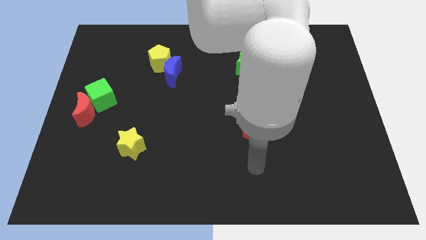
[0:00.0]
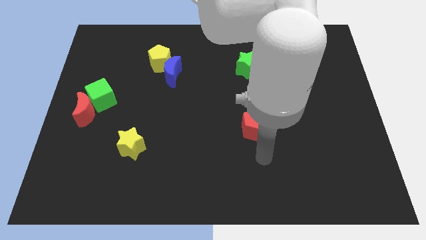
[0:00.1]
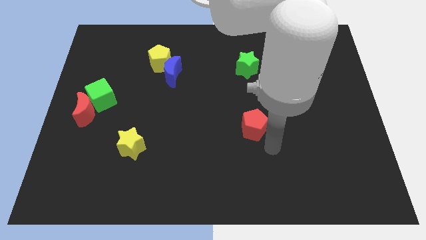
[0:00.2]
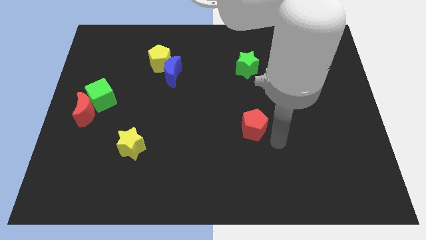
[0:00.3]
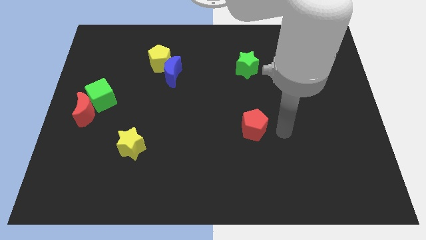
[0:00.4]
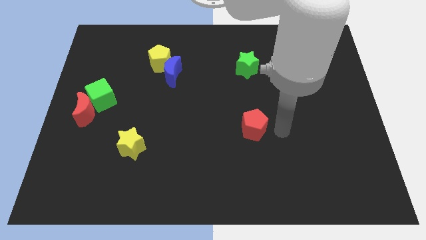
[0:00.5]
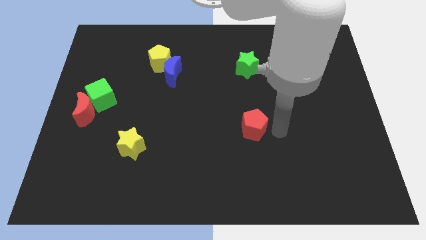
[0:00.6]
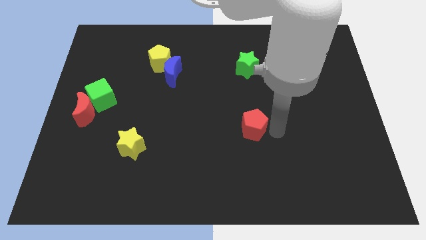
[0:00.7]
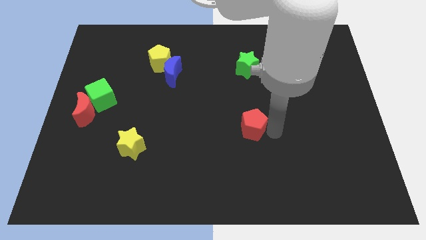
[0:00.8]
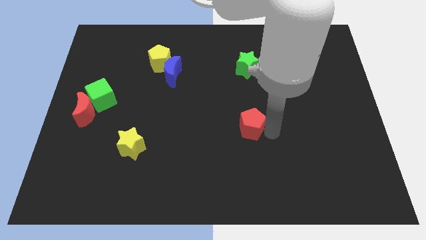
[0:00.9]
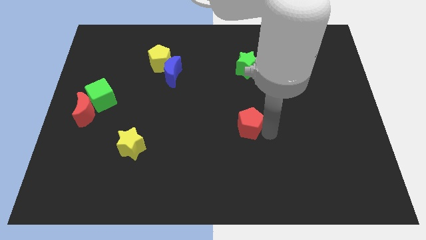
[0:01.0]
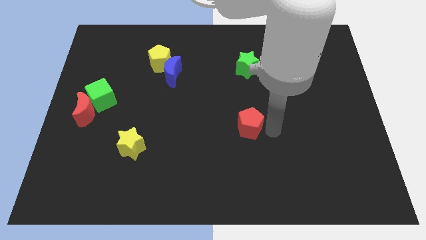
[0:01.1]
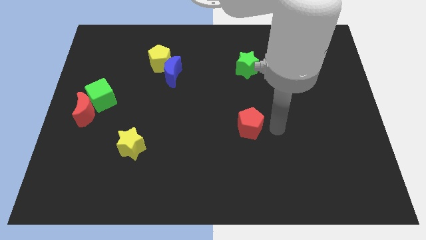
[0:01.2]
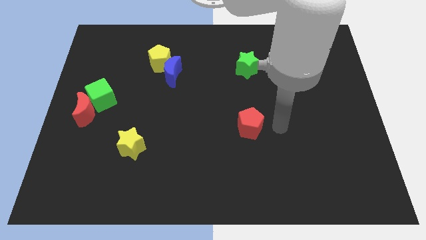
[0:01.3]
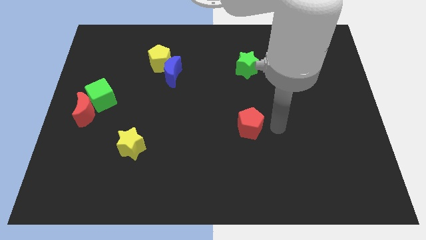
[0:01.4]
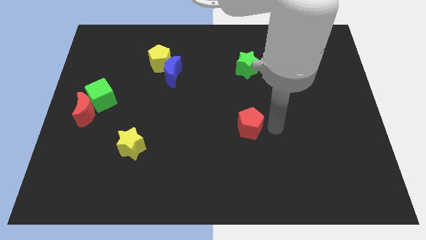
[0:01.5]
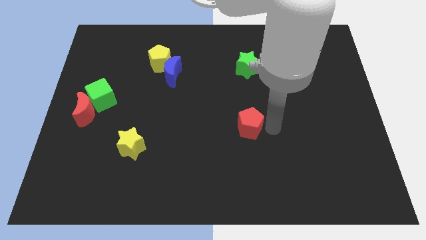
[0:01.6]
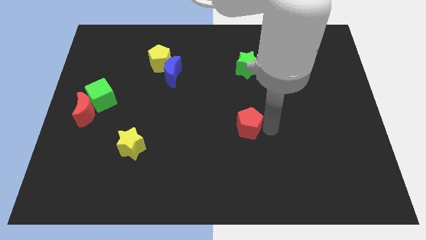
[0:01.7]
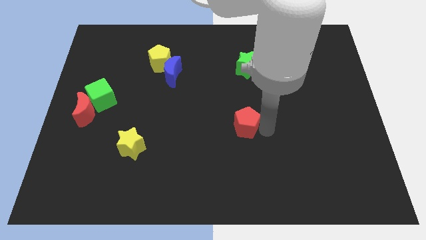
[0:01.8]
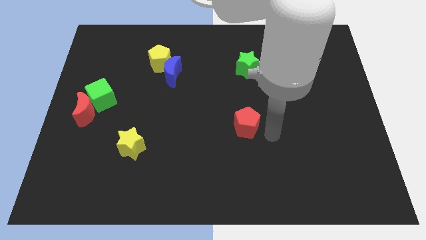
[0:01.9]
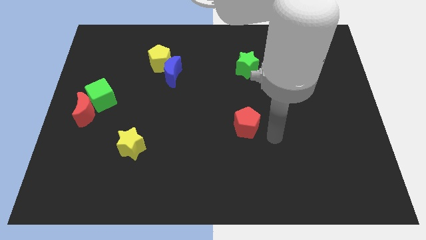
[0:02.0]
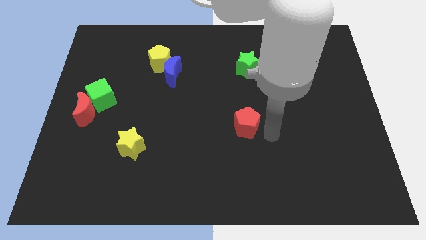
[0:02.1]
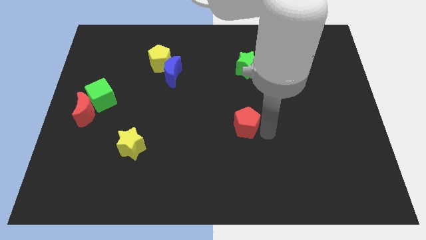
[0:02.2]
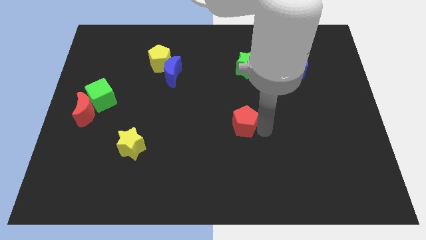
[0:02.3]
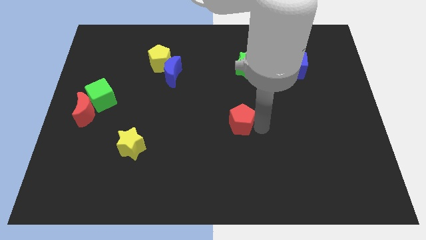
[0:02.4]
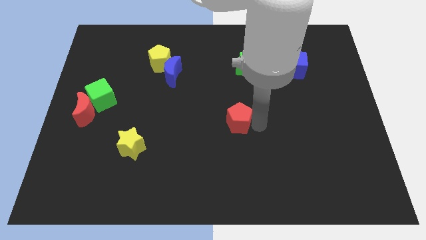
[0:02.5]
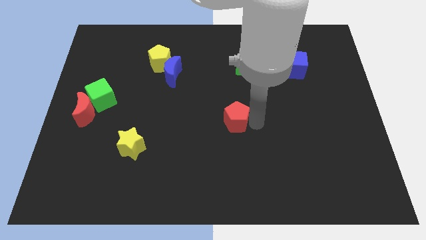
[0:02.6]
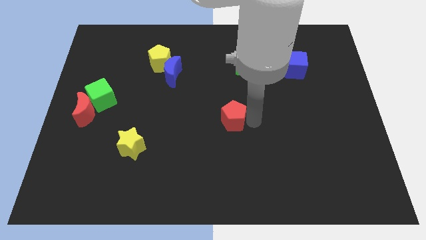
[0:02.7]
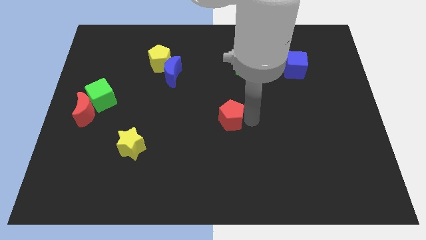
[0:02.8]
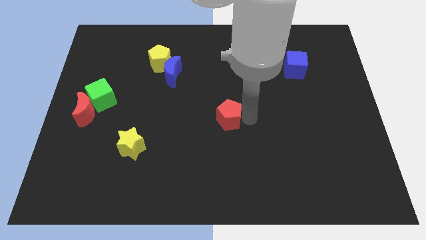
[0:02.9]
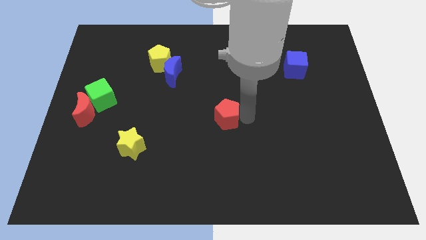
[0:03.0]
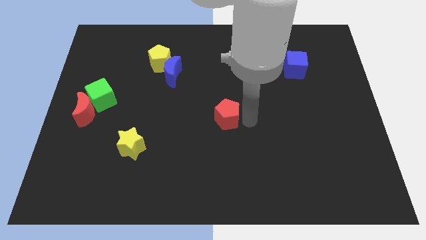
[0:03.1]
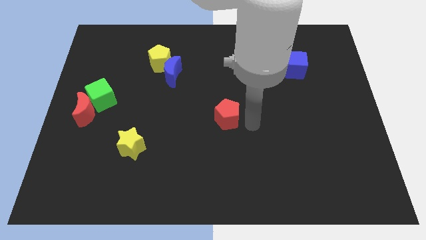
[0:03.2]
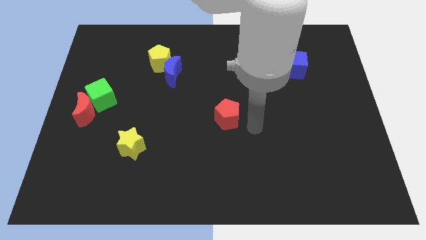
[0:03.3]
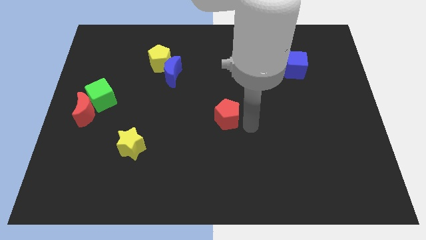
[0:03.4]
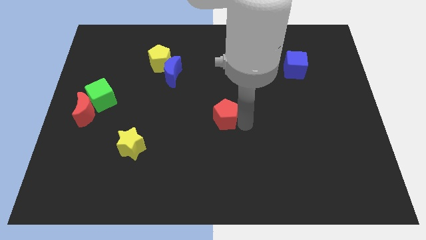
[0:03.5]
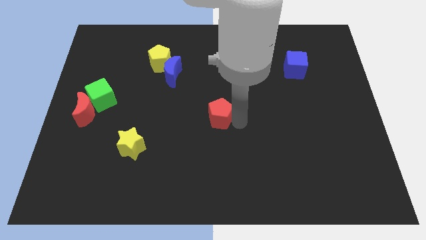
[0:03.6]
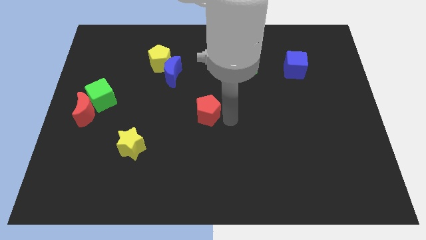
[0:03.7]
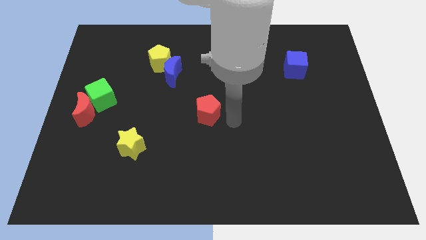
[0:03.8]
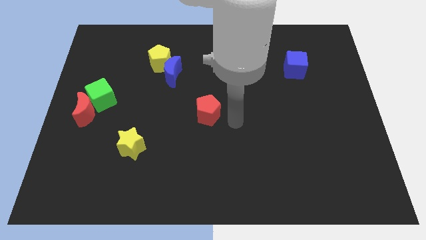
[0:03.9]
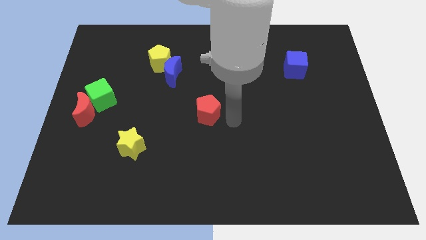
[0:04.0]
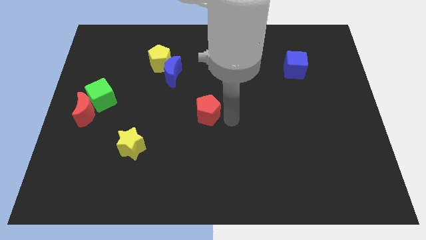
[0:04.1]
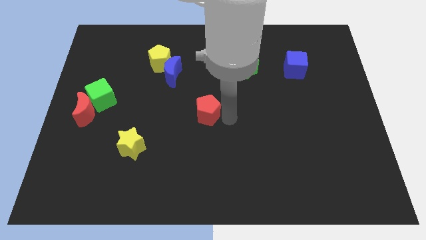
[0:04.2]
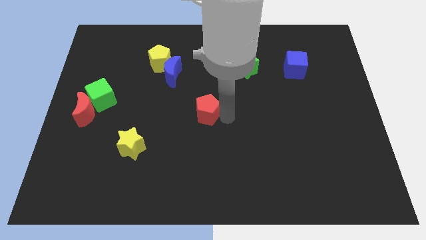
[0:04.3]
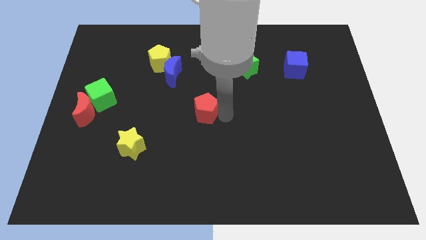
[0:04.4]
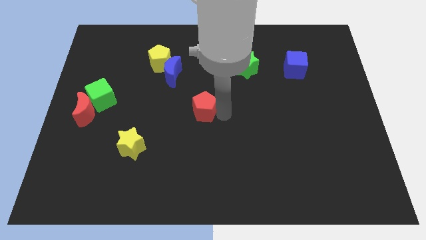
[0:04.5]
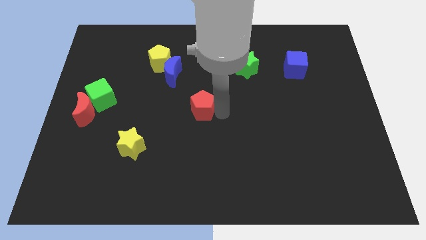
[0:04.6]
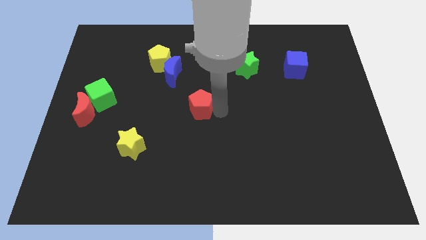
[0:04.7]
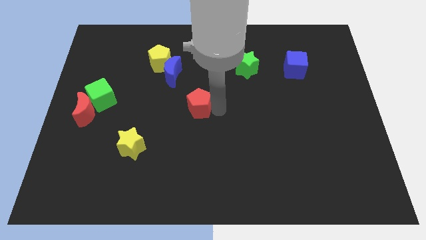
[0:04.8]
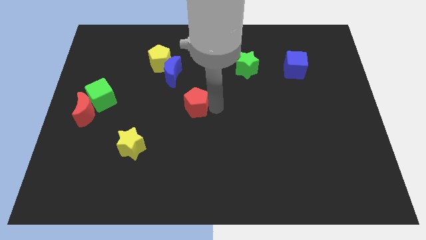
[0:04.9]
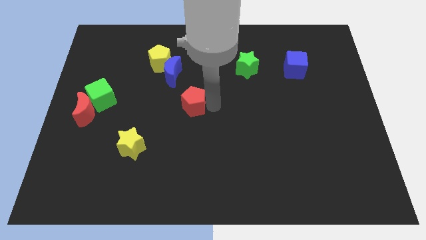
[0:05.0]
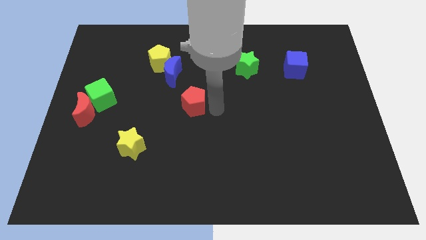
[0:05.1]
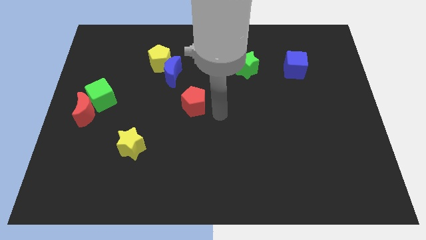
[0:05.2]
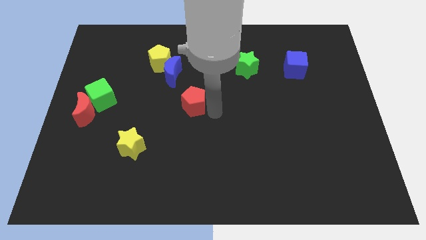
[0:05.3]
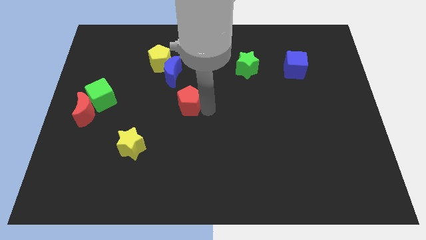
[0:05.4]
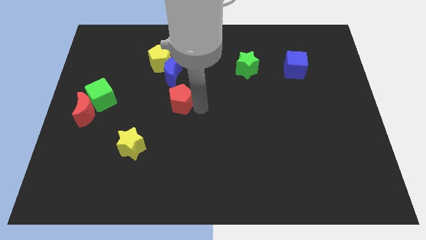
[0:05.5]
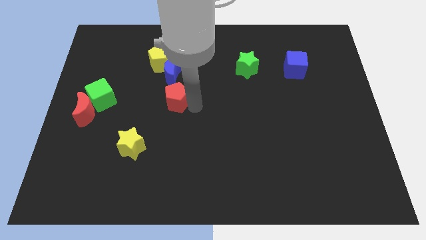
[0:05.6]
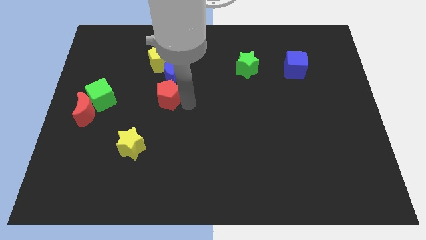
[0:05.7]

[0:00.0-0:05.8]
put the red pentagon to the bottom of the yellow pentagon

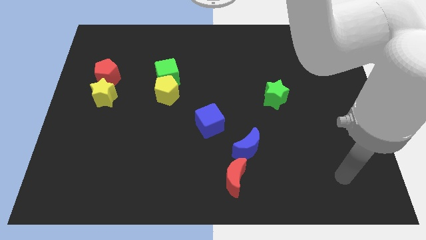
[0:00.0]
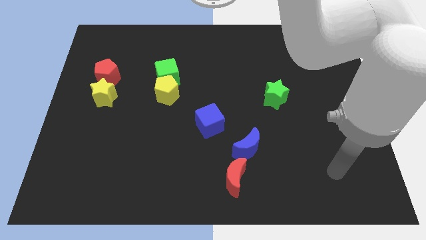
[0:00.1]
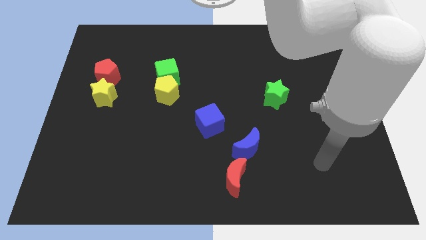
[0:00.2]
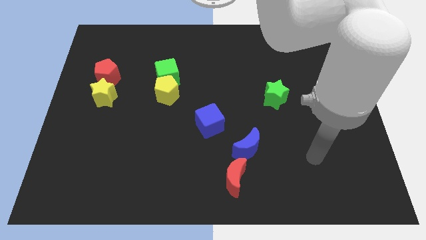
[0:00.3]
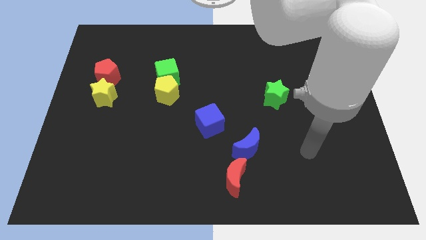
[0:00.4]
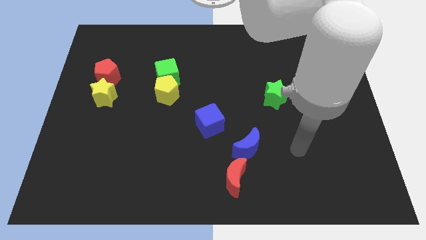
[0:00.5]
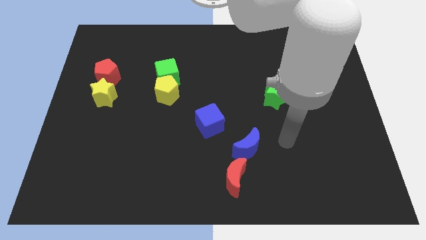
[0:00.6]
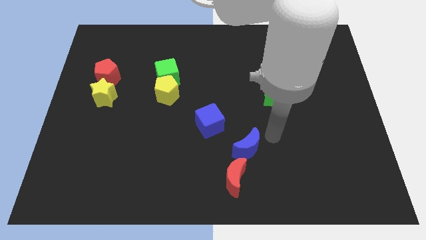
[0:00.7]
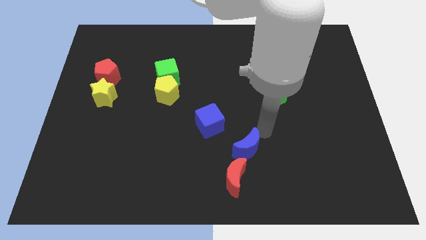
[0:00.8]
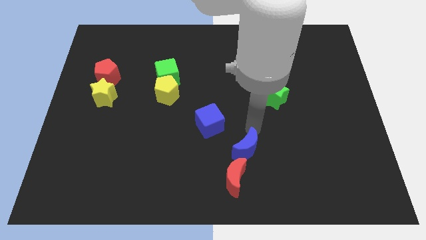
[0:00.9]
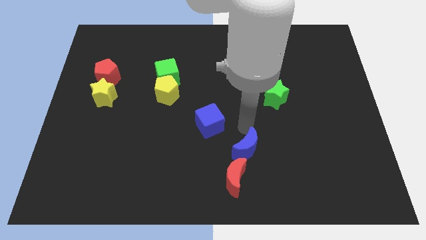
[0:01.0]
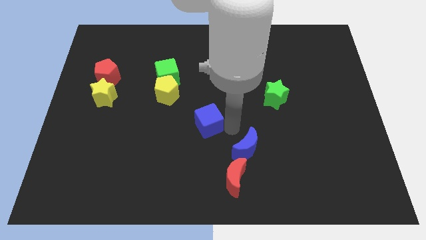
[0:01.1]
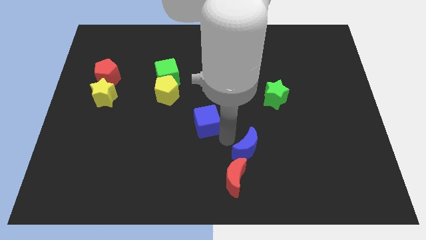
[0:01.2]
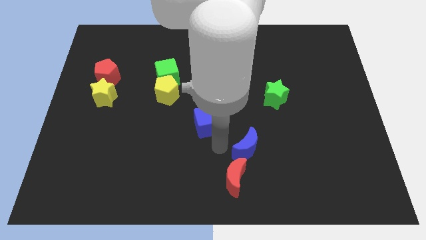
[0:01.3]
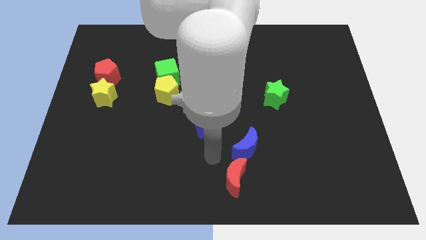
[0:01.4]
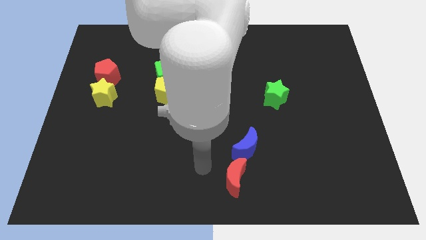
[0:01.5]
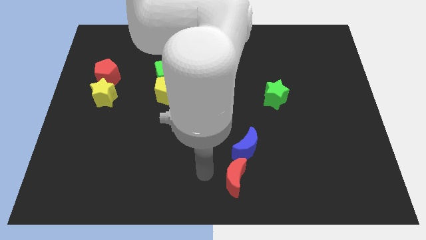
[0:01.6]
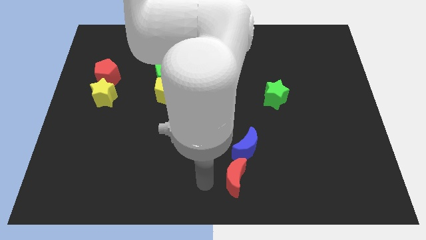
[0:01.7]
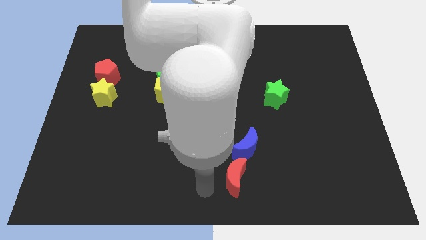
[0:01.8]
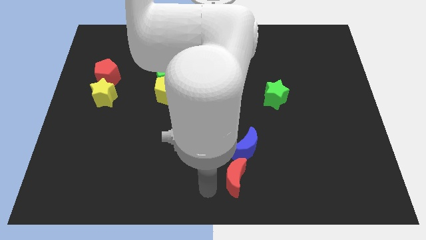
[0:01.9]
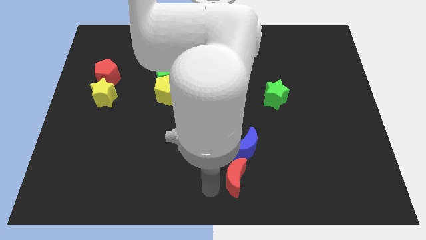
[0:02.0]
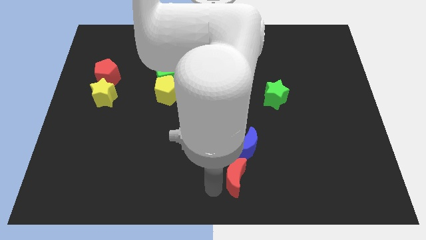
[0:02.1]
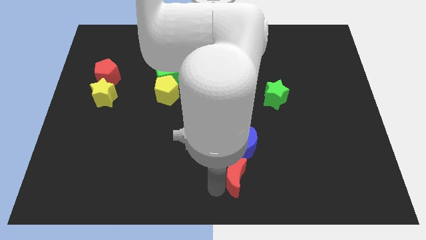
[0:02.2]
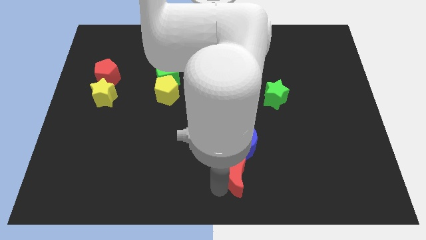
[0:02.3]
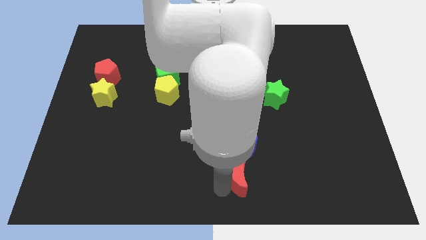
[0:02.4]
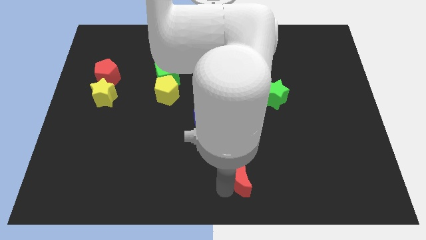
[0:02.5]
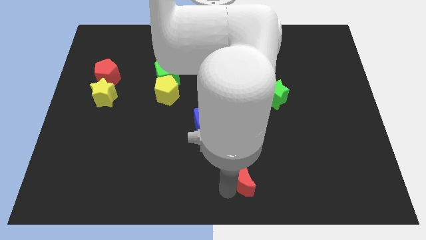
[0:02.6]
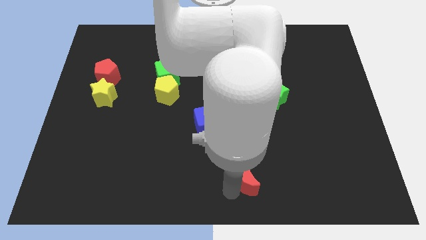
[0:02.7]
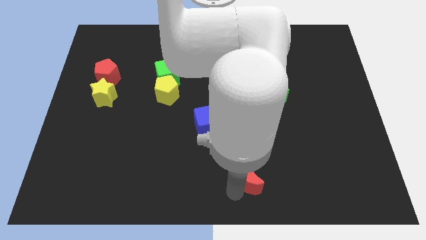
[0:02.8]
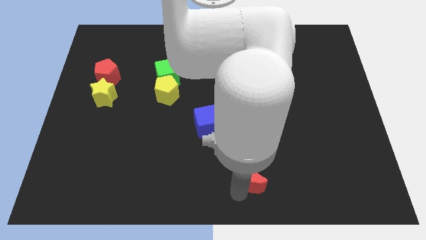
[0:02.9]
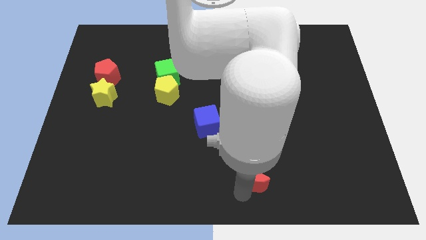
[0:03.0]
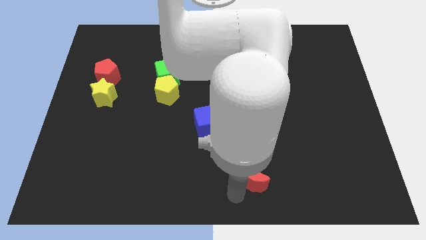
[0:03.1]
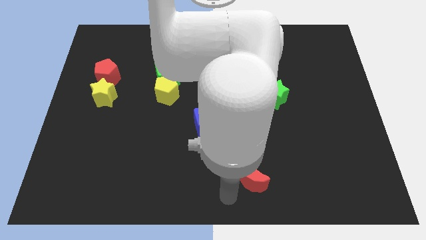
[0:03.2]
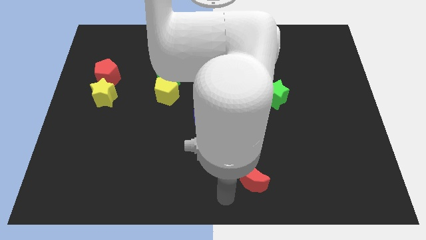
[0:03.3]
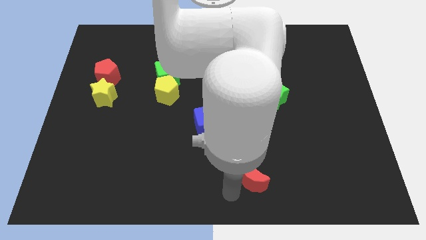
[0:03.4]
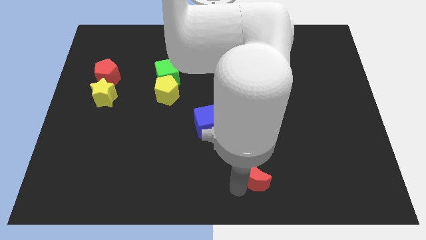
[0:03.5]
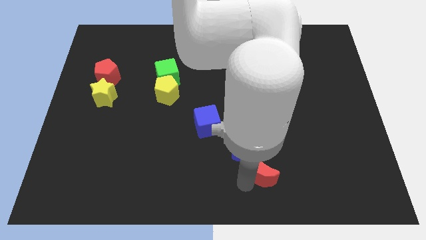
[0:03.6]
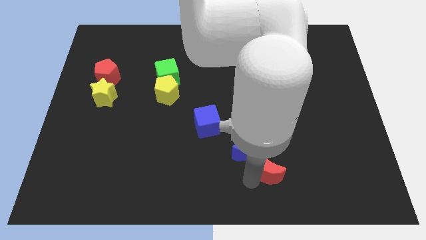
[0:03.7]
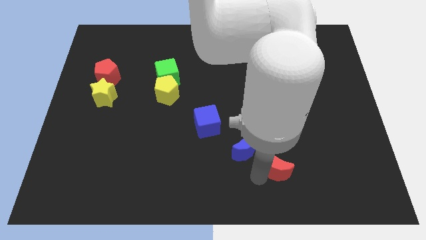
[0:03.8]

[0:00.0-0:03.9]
push the red moon to the right of the blue moon
